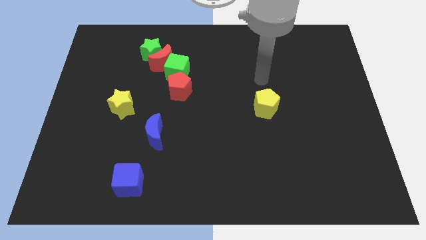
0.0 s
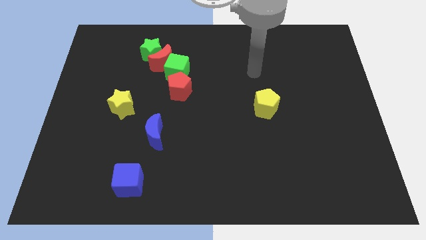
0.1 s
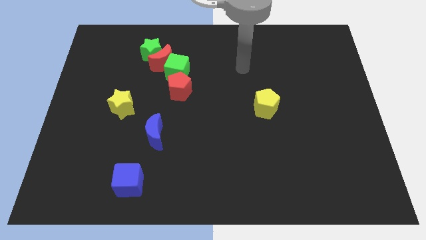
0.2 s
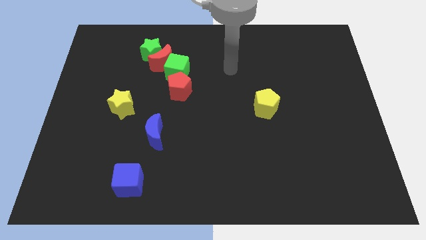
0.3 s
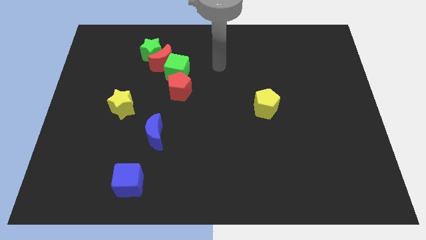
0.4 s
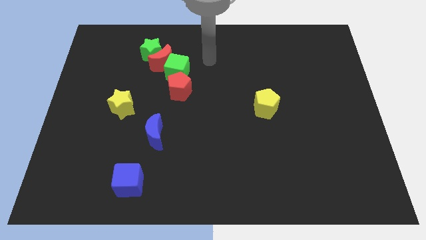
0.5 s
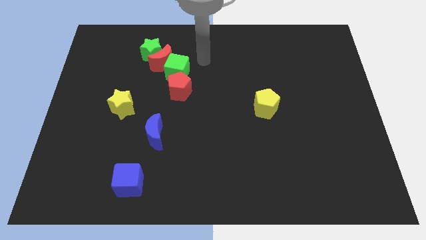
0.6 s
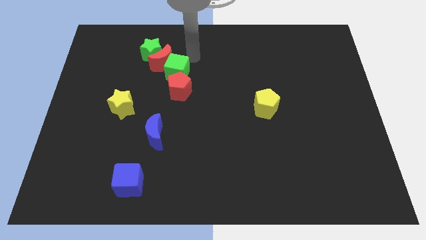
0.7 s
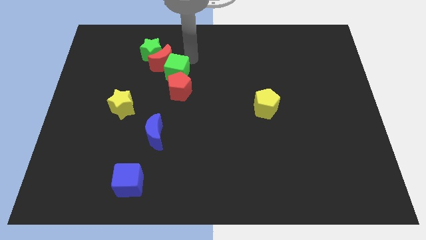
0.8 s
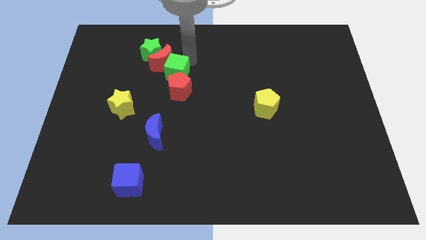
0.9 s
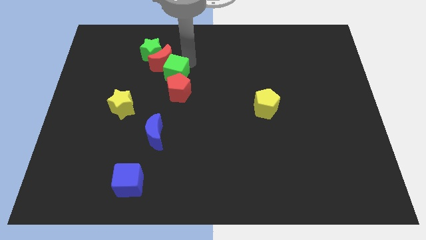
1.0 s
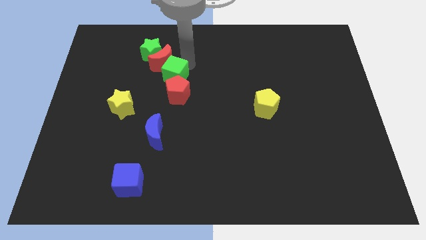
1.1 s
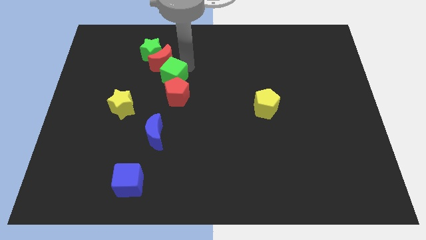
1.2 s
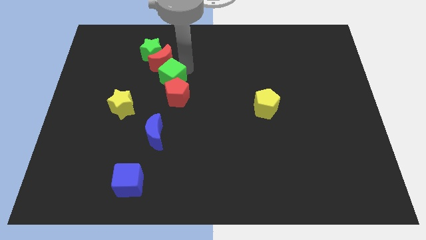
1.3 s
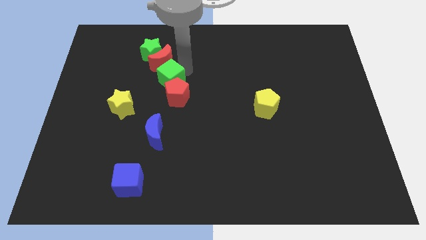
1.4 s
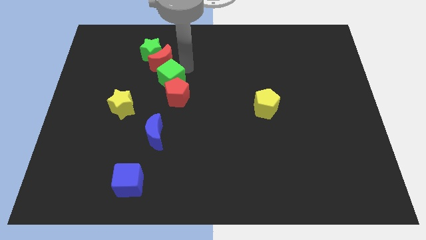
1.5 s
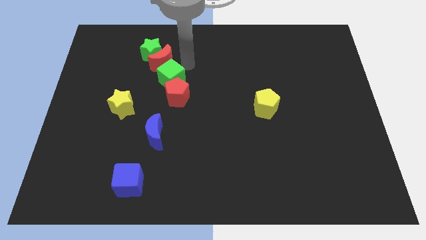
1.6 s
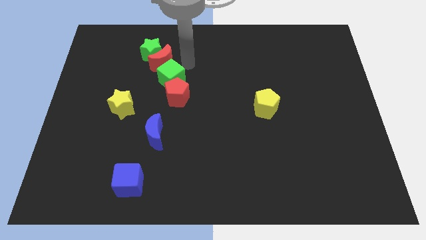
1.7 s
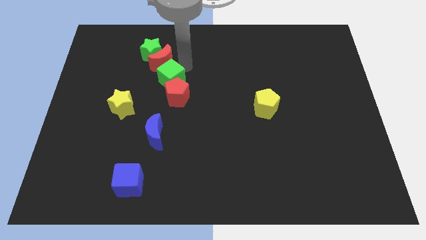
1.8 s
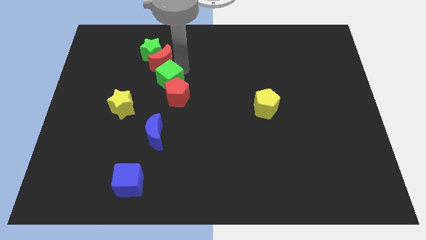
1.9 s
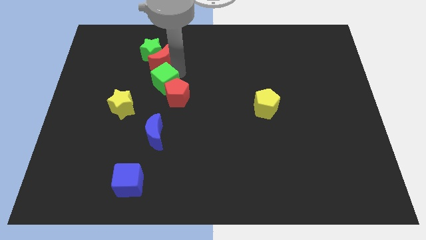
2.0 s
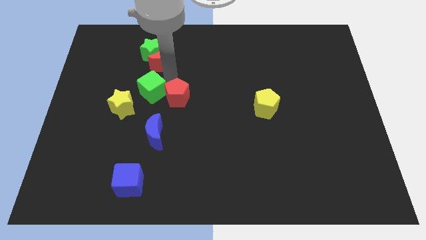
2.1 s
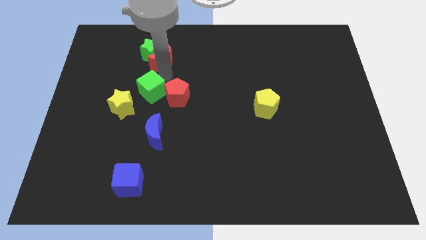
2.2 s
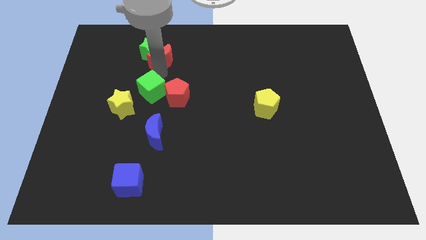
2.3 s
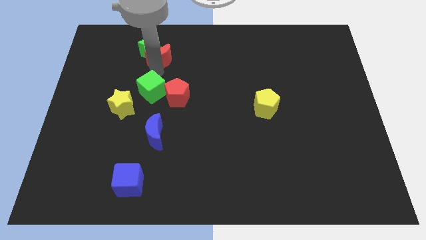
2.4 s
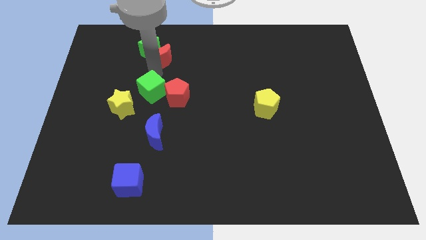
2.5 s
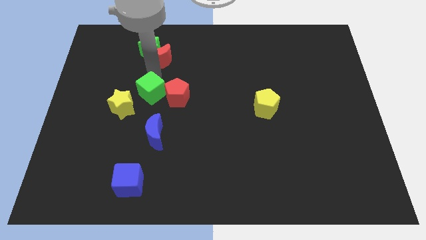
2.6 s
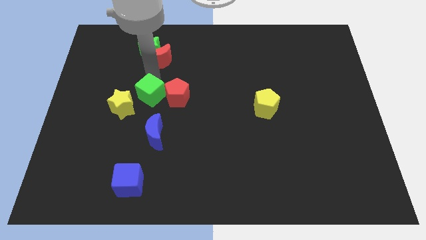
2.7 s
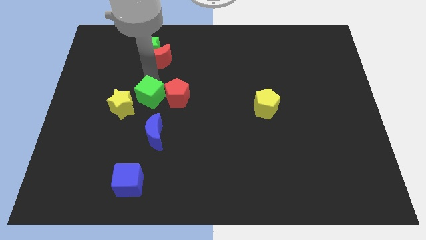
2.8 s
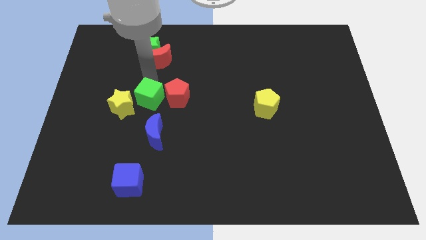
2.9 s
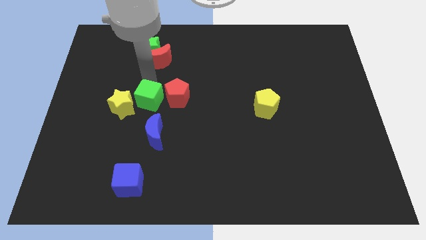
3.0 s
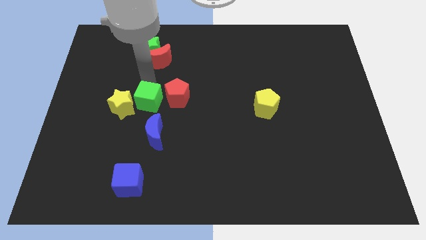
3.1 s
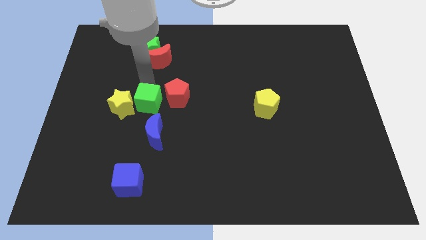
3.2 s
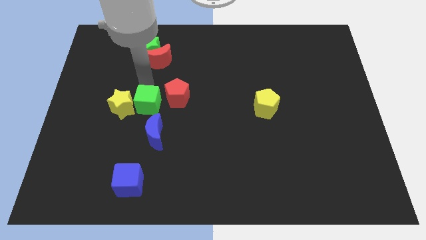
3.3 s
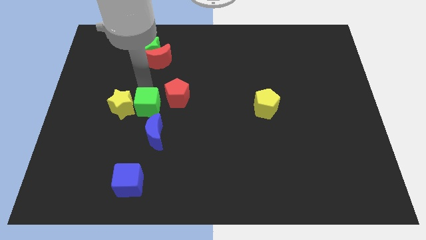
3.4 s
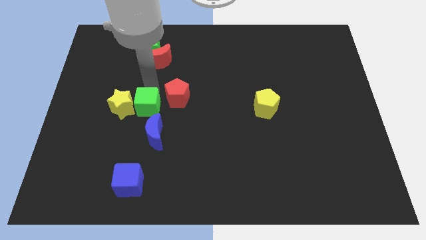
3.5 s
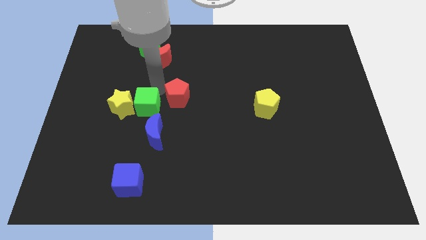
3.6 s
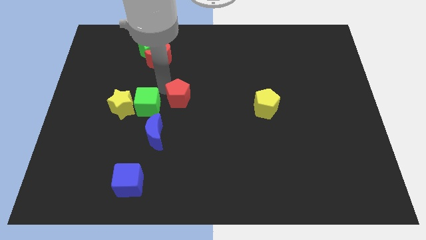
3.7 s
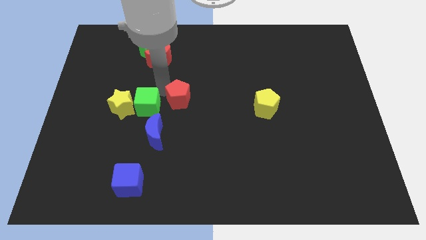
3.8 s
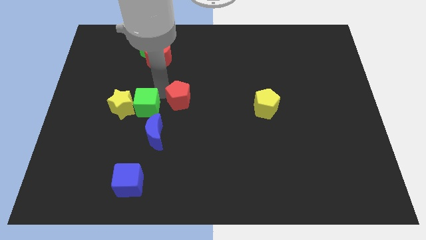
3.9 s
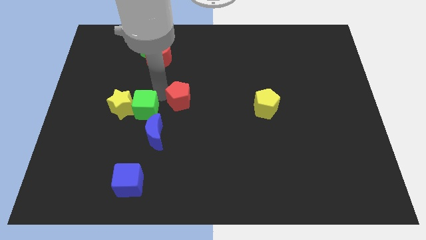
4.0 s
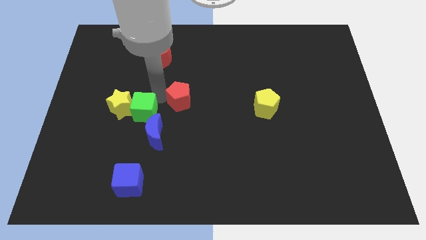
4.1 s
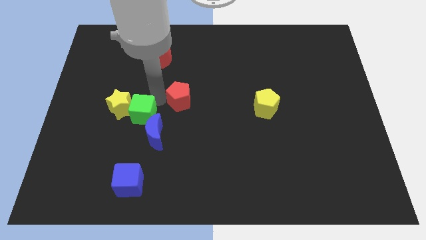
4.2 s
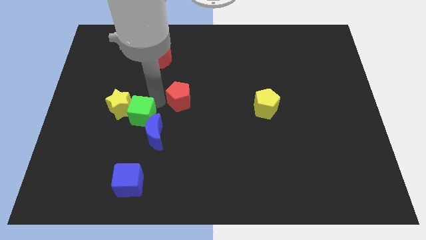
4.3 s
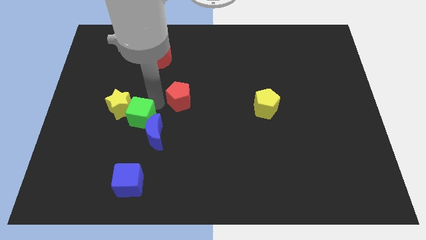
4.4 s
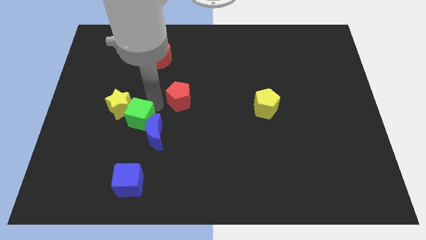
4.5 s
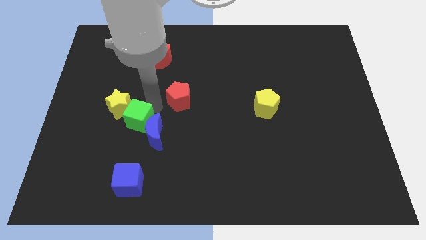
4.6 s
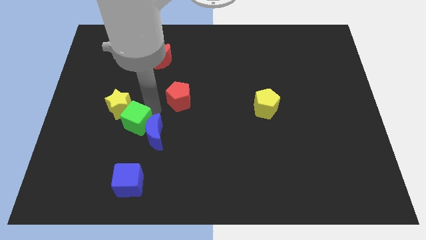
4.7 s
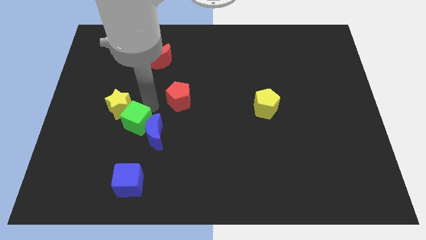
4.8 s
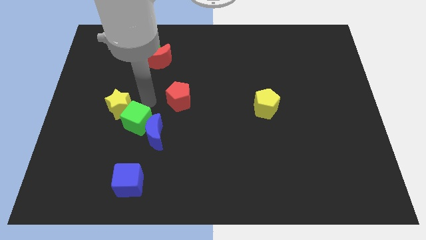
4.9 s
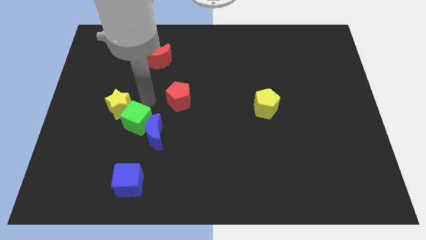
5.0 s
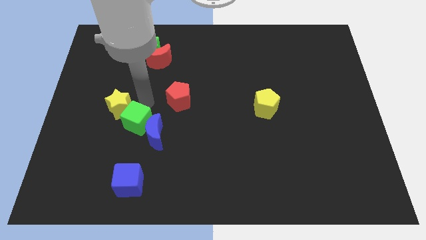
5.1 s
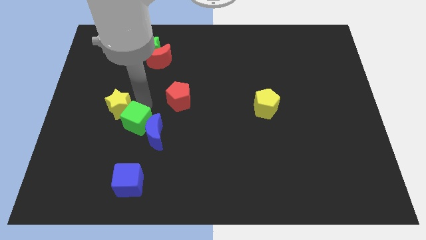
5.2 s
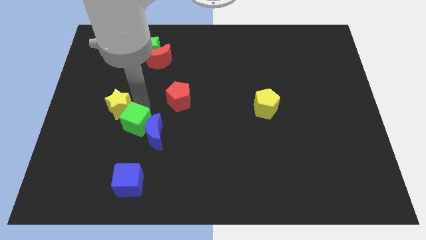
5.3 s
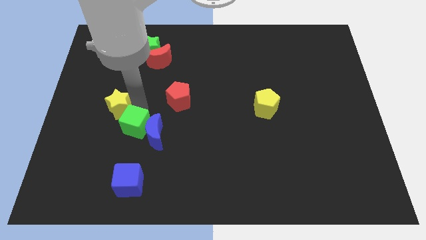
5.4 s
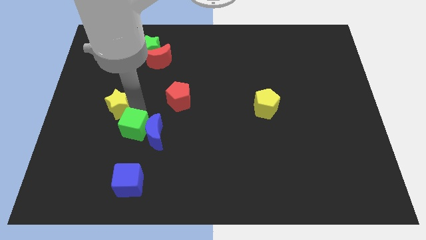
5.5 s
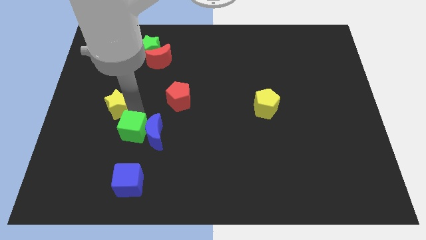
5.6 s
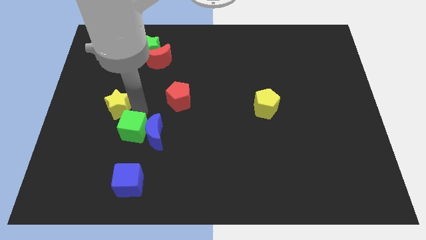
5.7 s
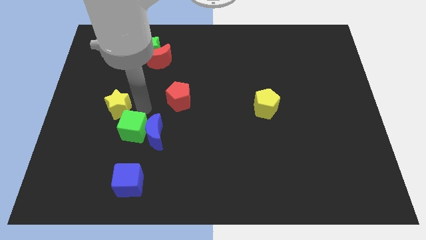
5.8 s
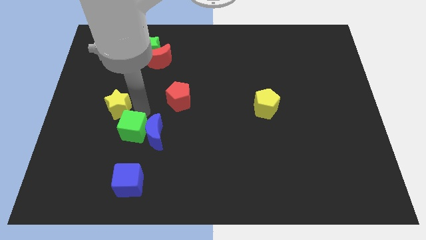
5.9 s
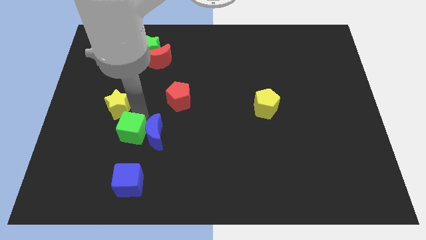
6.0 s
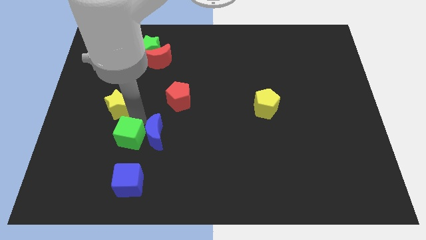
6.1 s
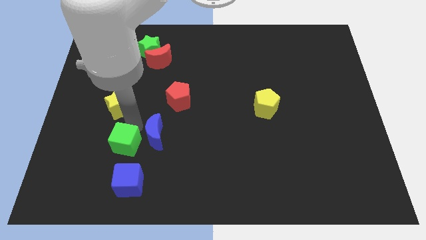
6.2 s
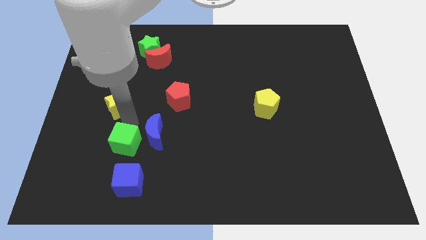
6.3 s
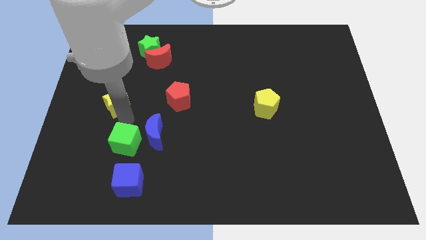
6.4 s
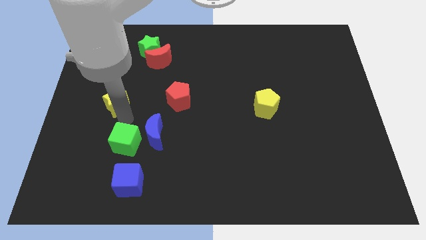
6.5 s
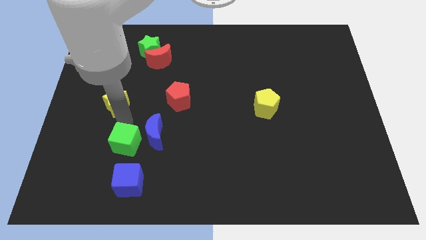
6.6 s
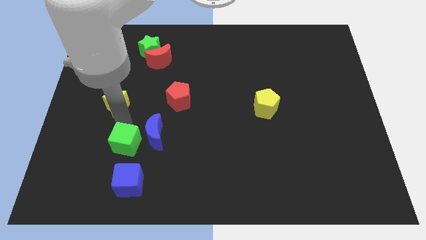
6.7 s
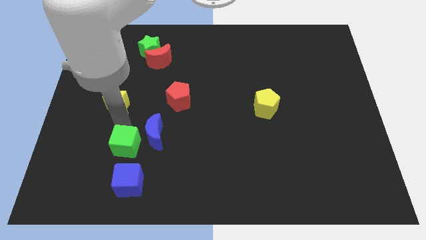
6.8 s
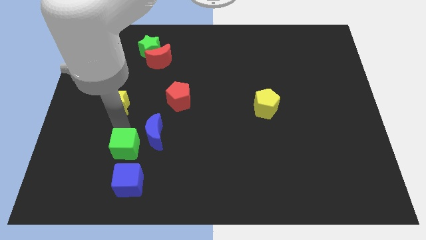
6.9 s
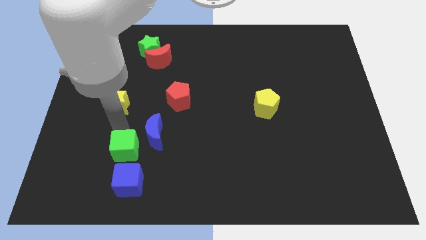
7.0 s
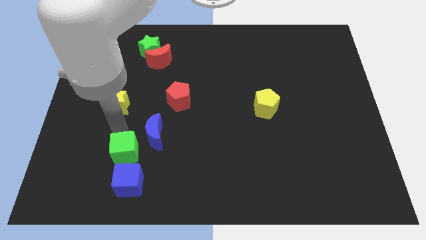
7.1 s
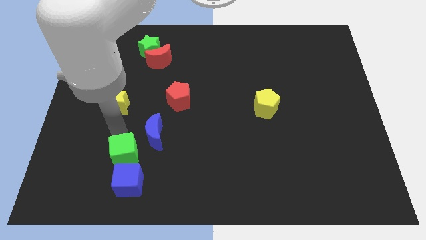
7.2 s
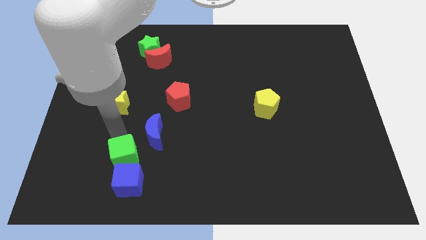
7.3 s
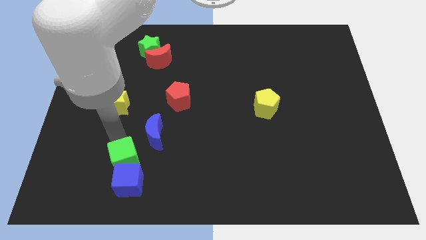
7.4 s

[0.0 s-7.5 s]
slide the green cube close to the blue cube
